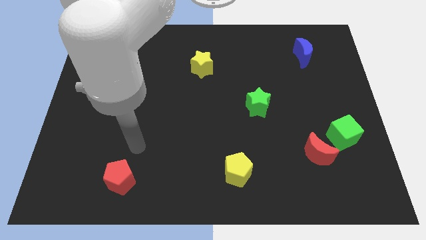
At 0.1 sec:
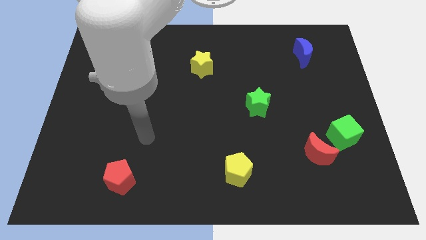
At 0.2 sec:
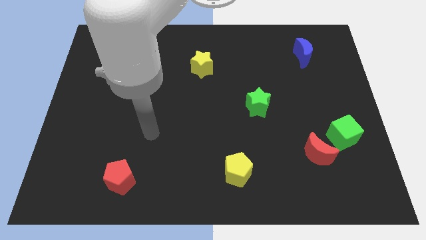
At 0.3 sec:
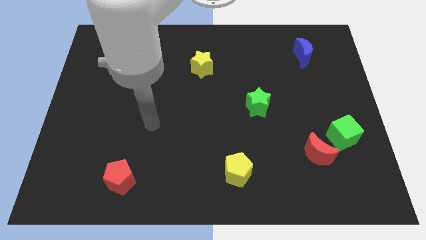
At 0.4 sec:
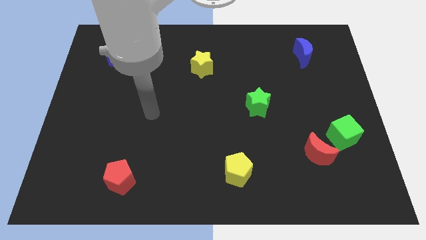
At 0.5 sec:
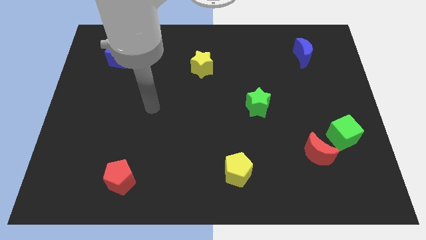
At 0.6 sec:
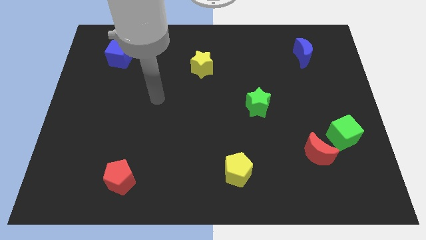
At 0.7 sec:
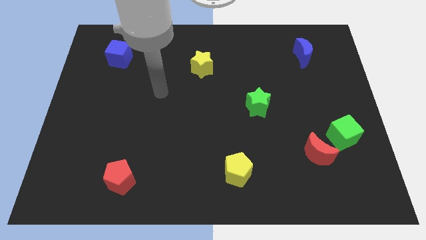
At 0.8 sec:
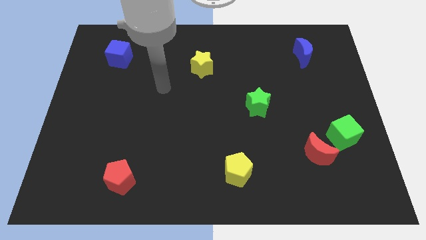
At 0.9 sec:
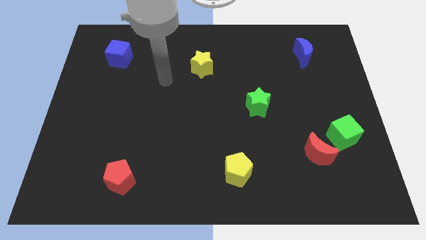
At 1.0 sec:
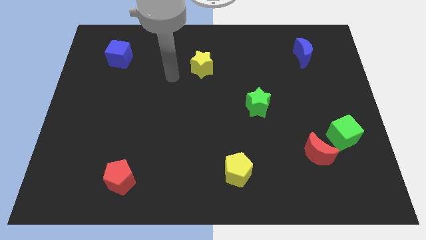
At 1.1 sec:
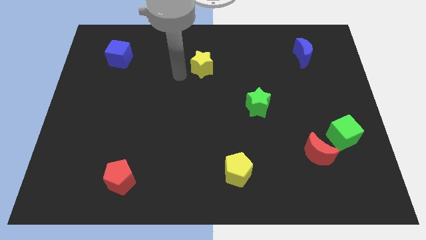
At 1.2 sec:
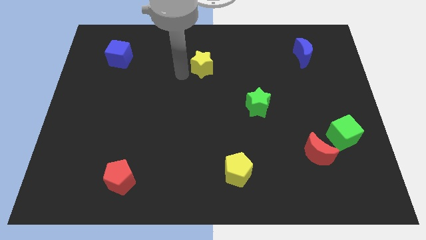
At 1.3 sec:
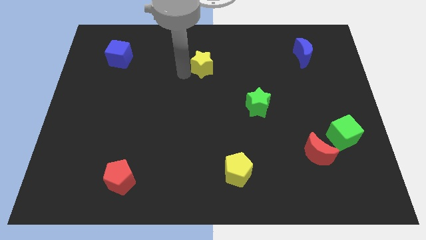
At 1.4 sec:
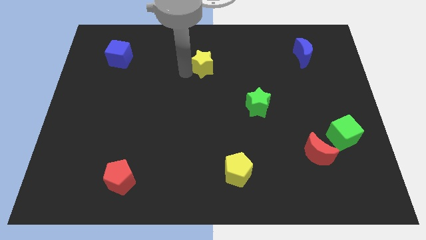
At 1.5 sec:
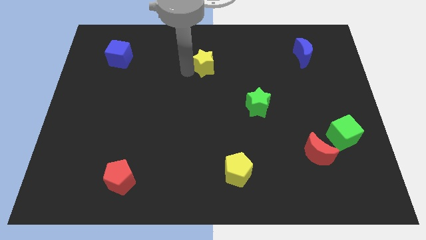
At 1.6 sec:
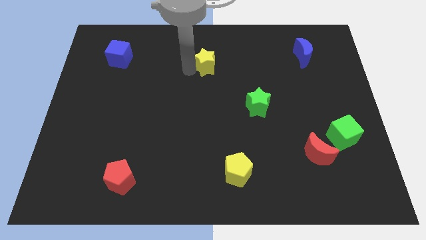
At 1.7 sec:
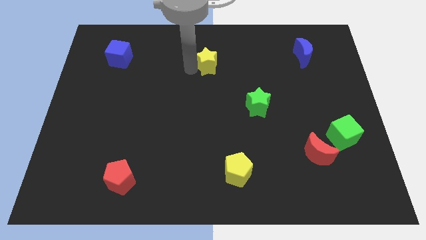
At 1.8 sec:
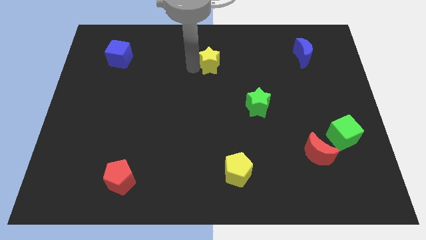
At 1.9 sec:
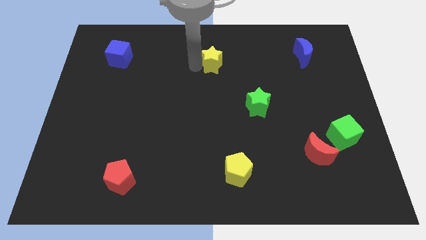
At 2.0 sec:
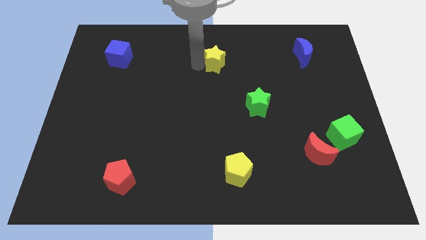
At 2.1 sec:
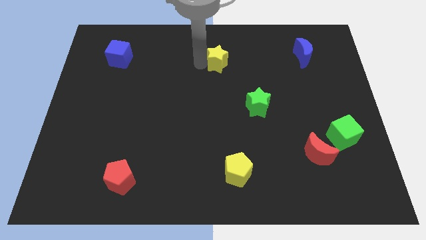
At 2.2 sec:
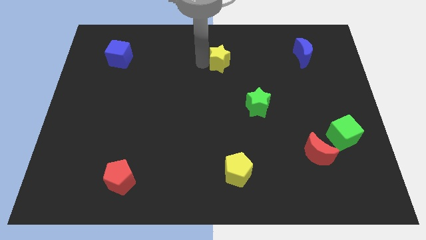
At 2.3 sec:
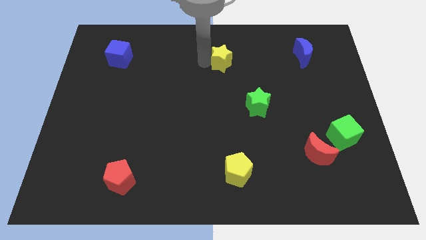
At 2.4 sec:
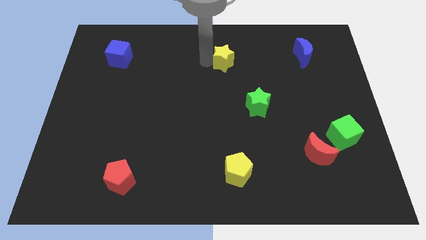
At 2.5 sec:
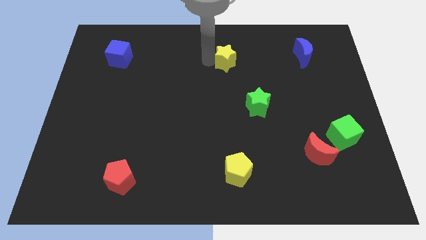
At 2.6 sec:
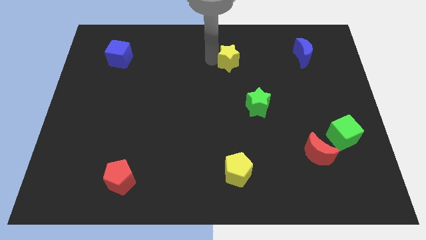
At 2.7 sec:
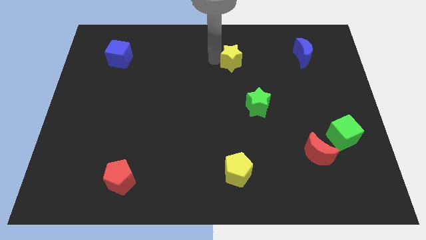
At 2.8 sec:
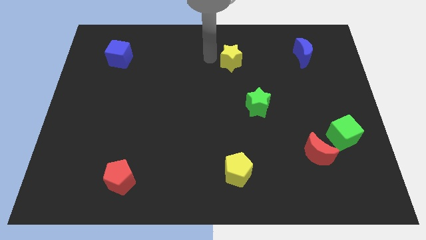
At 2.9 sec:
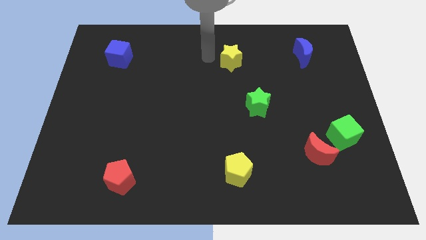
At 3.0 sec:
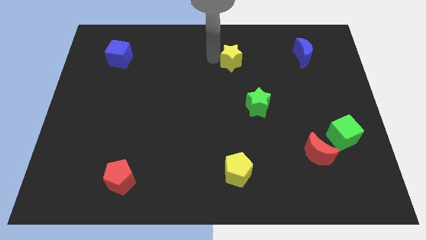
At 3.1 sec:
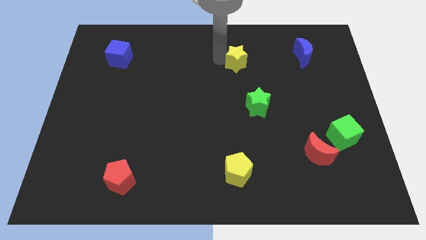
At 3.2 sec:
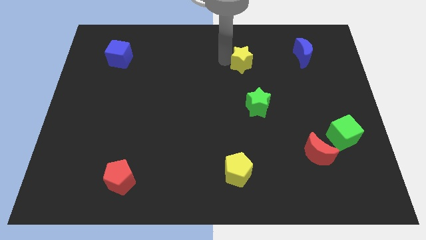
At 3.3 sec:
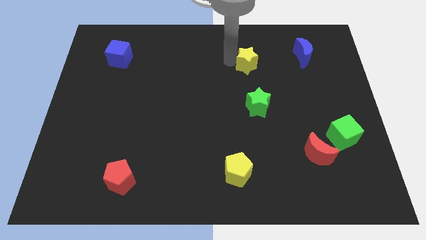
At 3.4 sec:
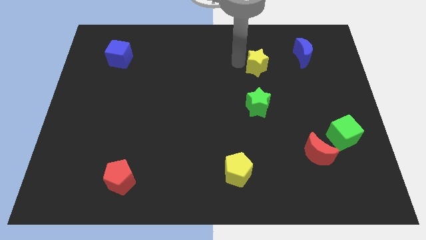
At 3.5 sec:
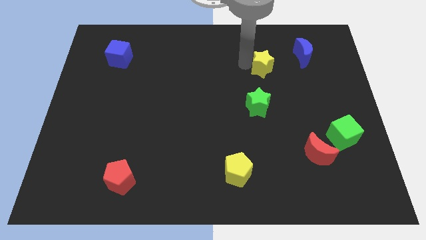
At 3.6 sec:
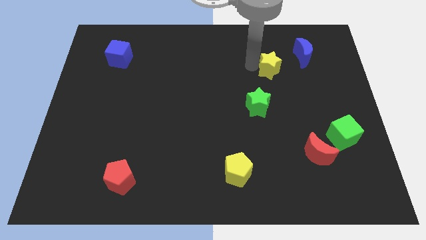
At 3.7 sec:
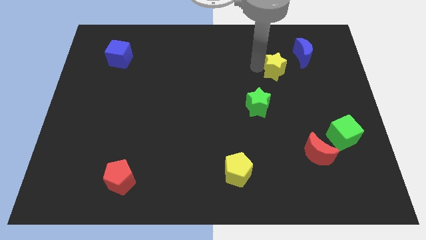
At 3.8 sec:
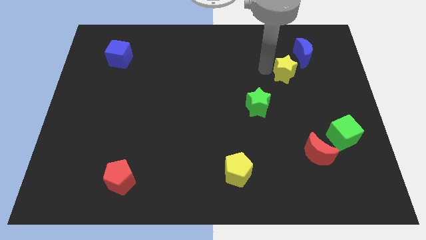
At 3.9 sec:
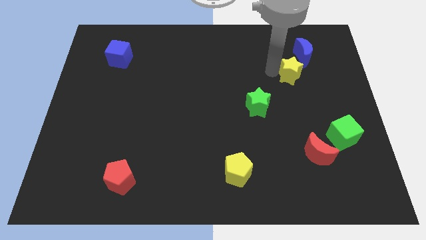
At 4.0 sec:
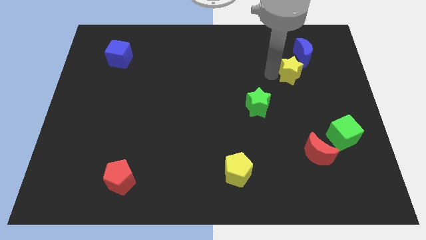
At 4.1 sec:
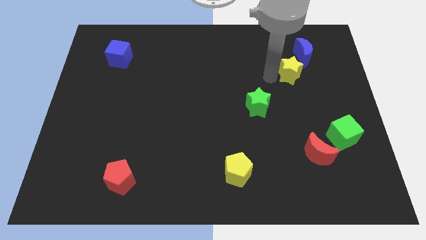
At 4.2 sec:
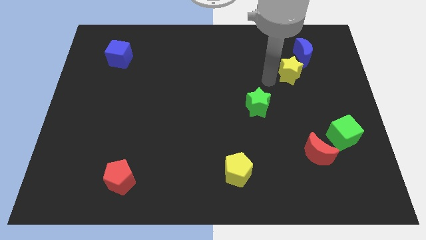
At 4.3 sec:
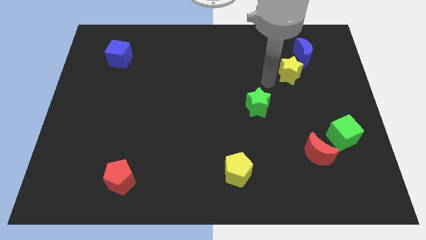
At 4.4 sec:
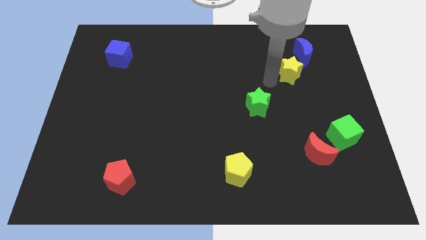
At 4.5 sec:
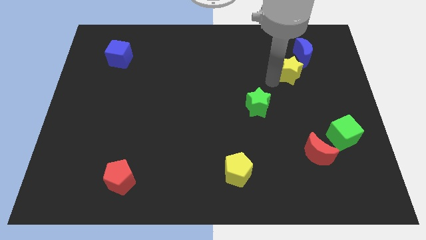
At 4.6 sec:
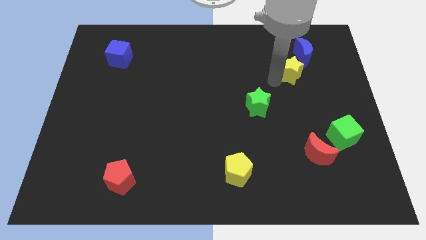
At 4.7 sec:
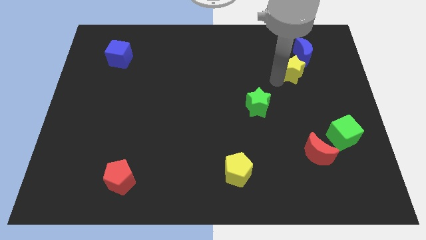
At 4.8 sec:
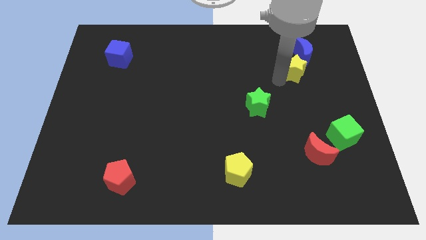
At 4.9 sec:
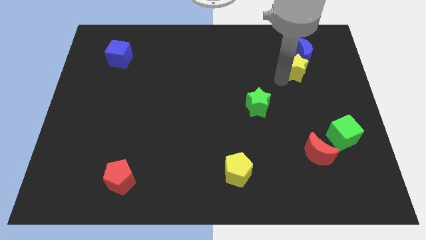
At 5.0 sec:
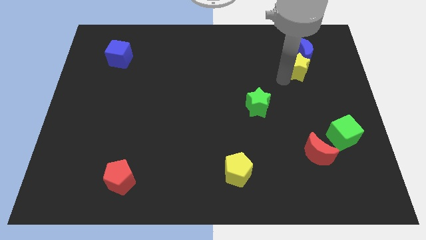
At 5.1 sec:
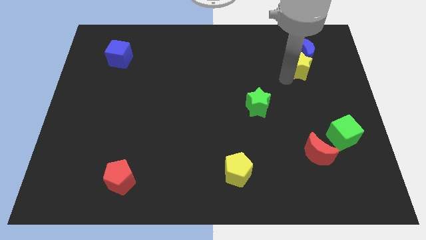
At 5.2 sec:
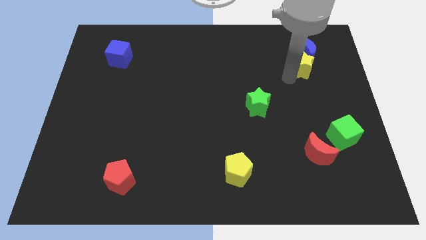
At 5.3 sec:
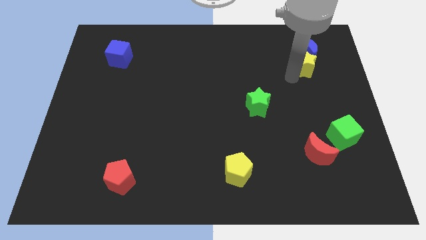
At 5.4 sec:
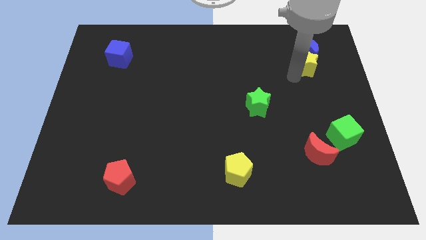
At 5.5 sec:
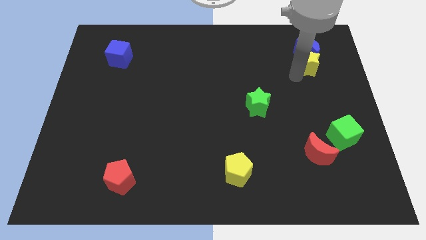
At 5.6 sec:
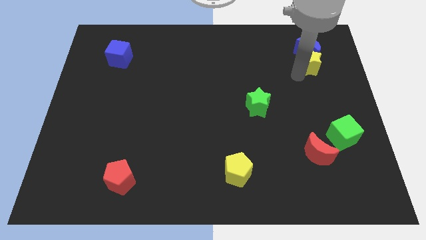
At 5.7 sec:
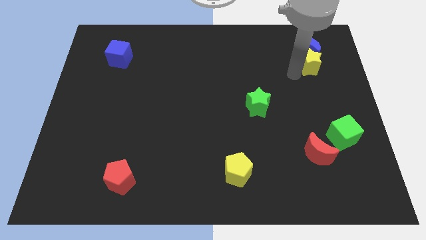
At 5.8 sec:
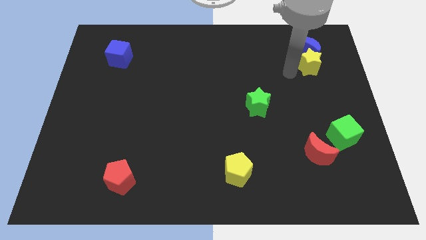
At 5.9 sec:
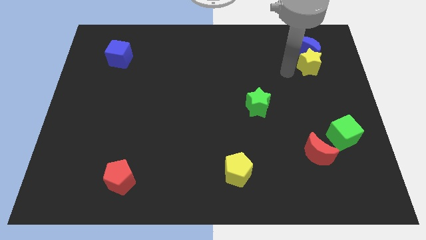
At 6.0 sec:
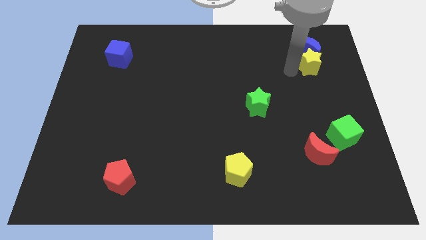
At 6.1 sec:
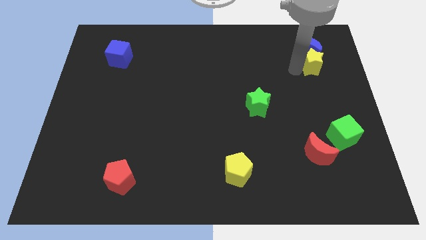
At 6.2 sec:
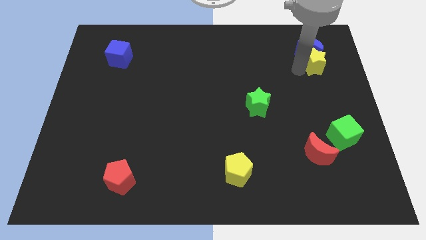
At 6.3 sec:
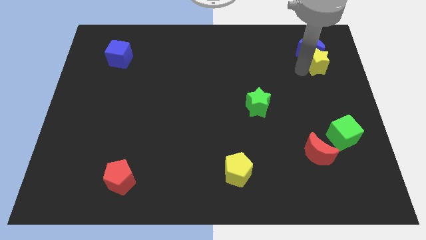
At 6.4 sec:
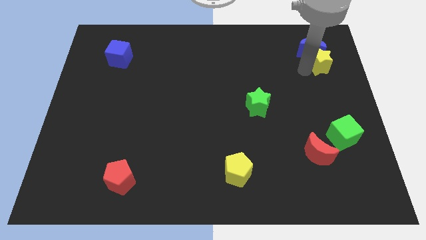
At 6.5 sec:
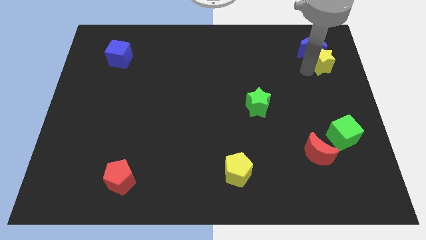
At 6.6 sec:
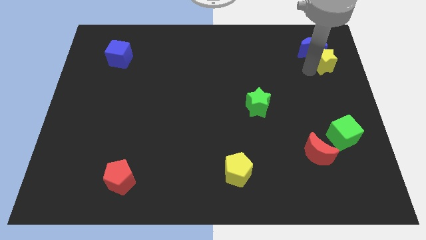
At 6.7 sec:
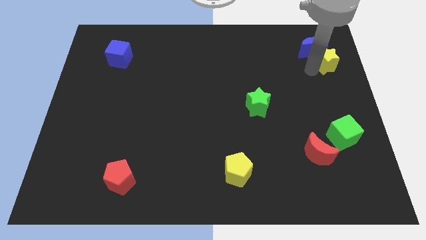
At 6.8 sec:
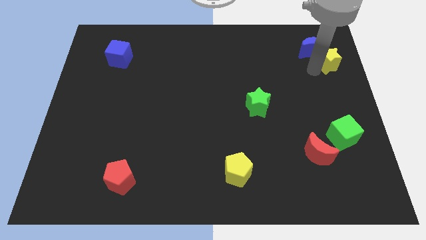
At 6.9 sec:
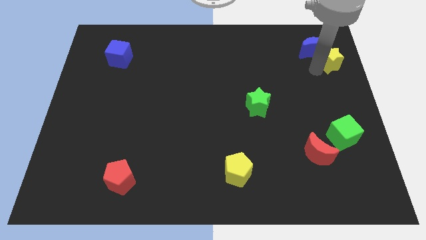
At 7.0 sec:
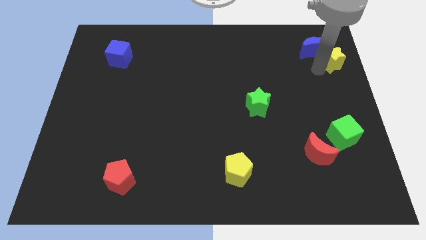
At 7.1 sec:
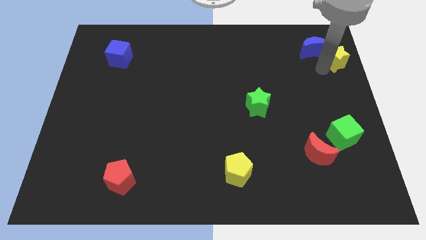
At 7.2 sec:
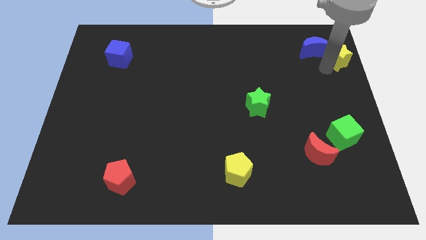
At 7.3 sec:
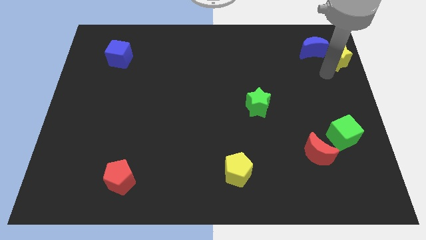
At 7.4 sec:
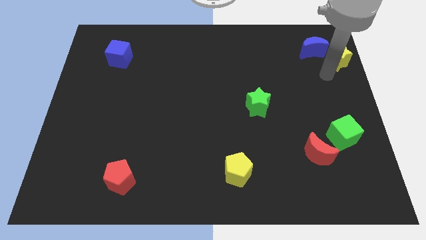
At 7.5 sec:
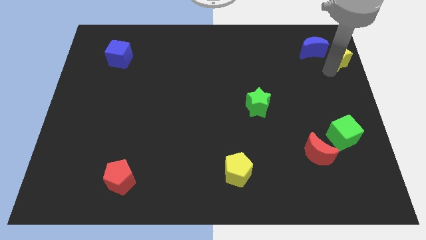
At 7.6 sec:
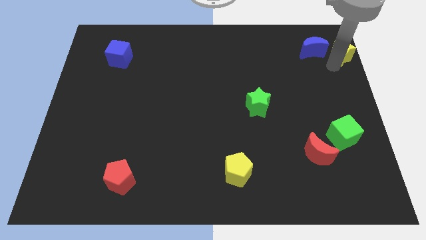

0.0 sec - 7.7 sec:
slide the yellow star to the top right
